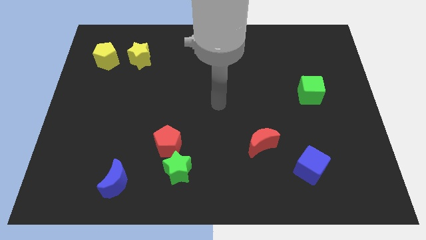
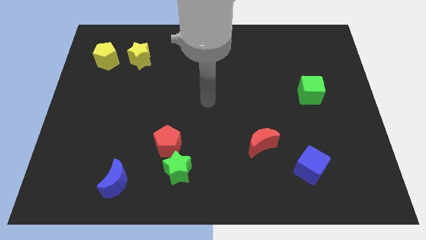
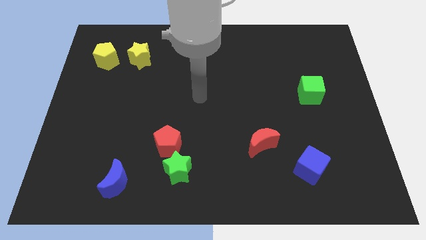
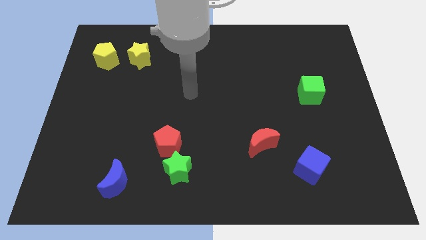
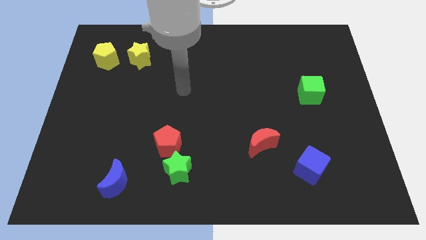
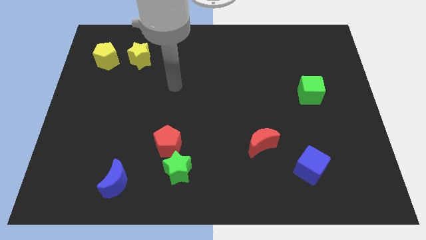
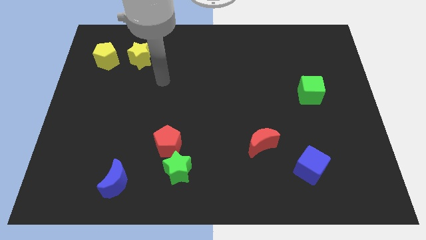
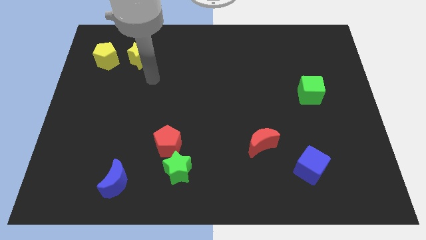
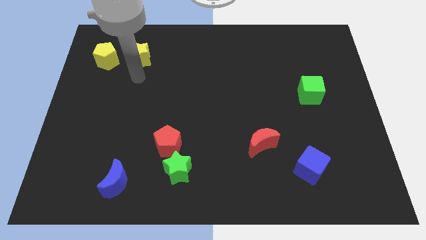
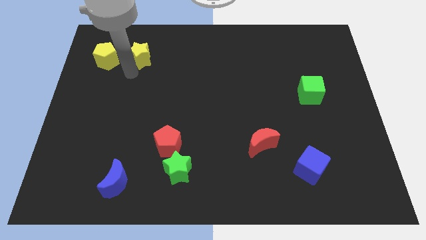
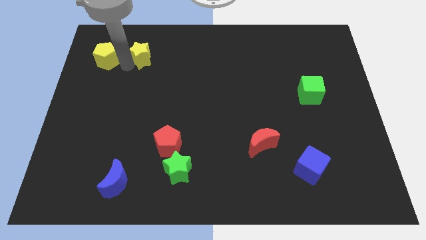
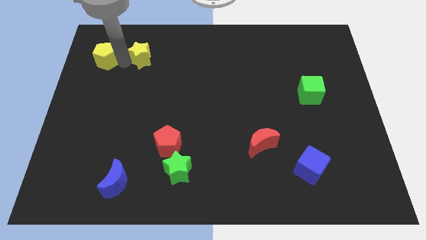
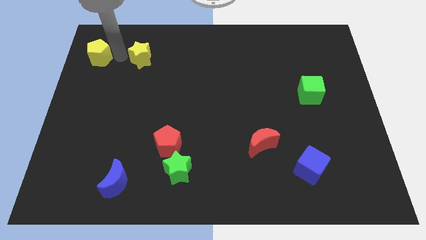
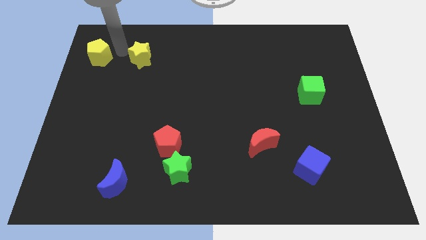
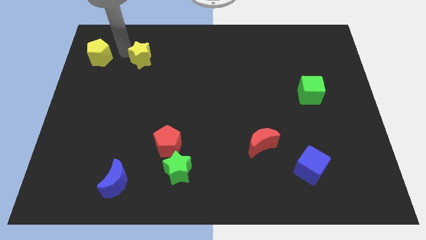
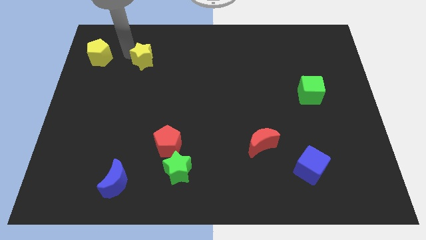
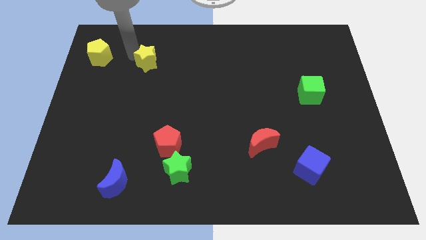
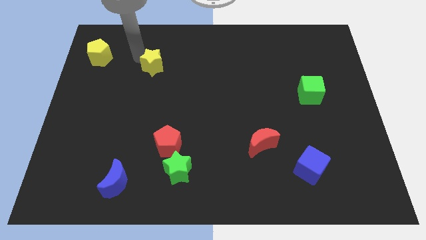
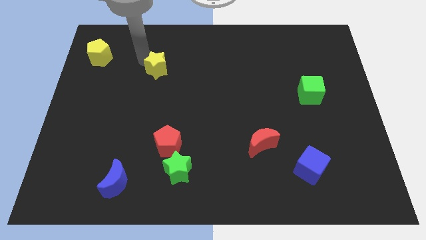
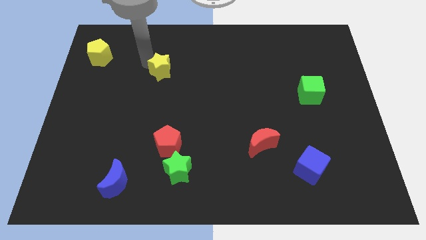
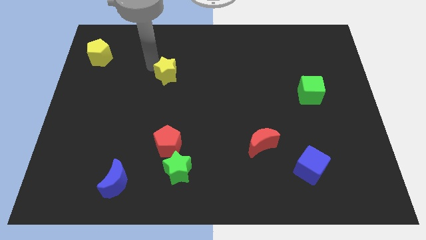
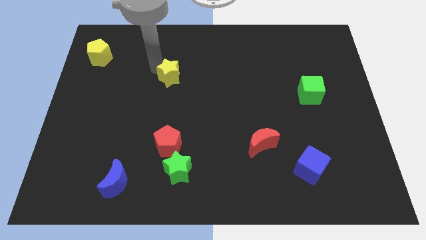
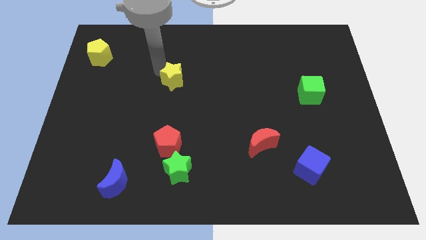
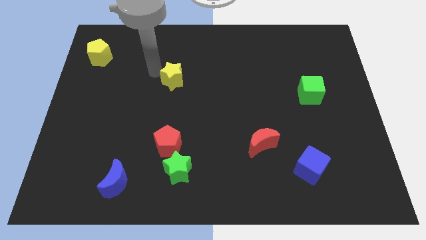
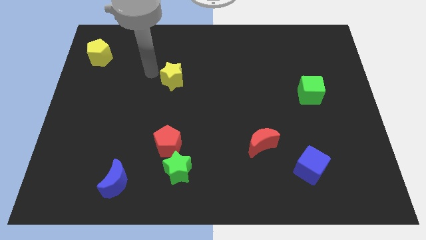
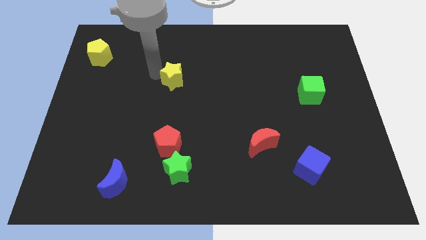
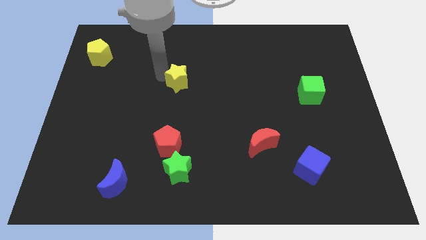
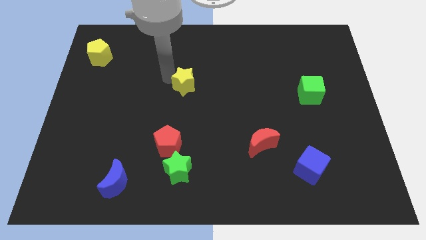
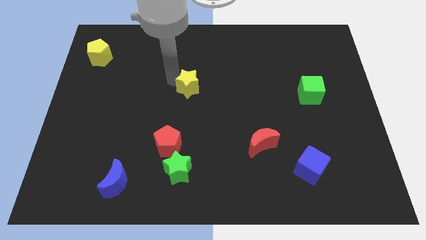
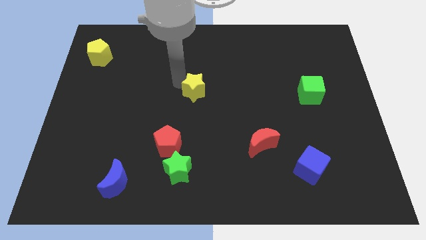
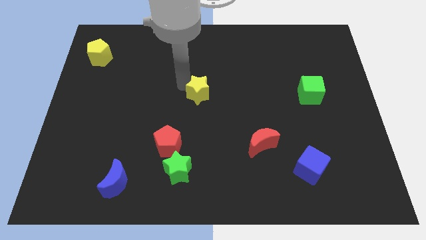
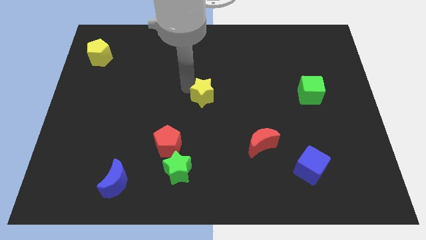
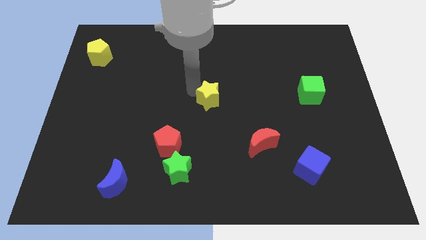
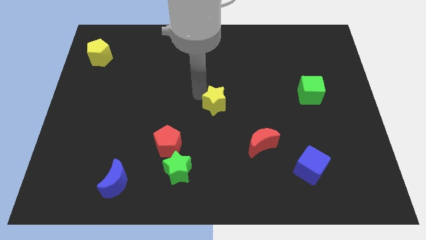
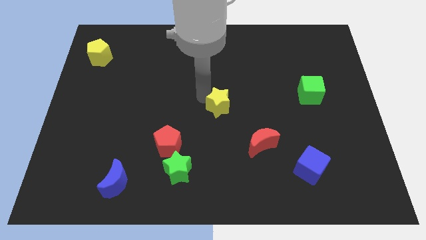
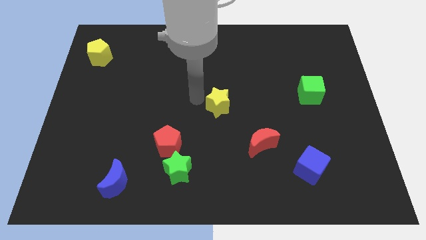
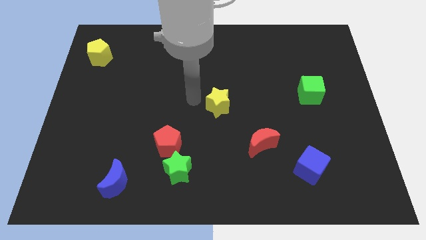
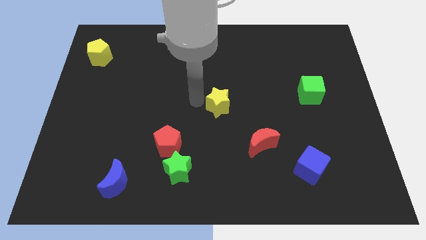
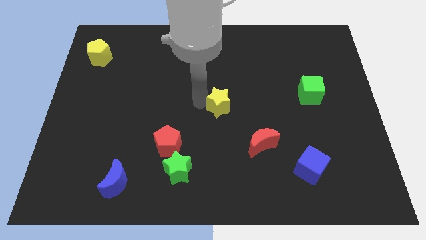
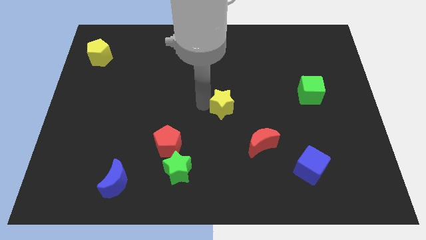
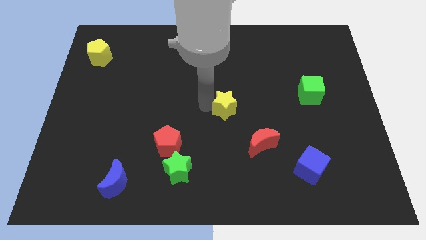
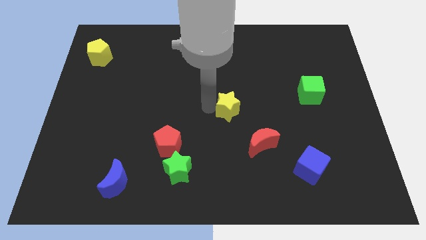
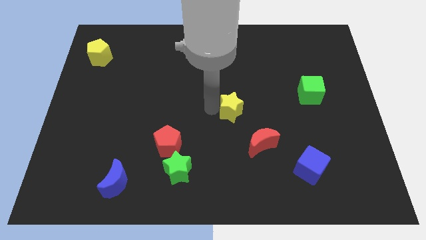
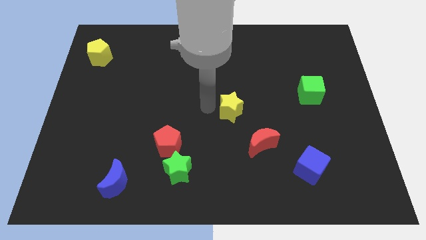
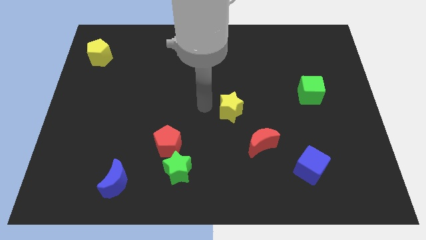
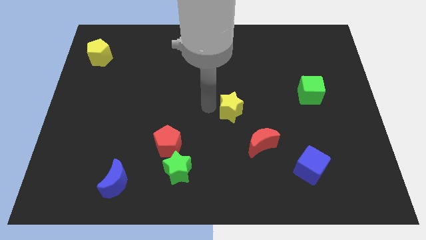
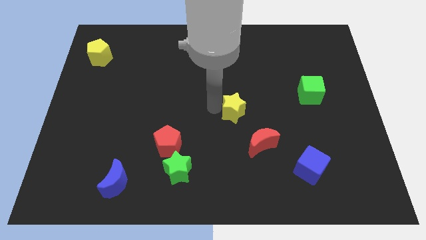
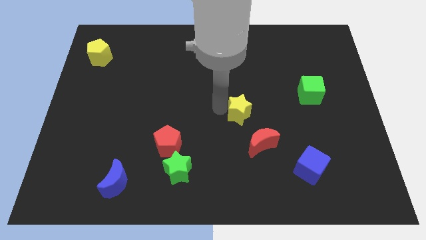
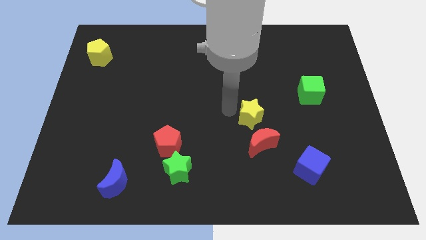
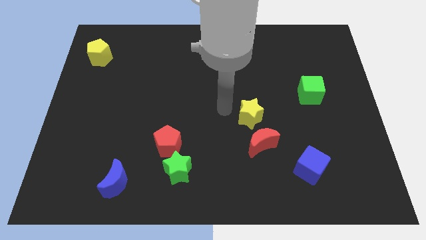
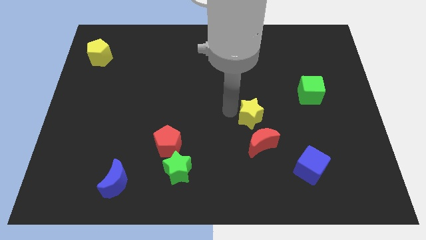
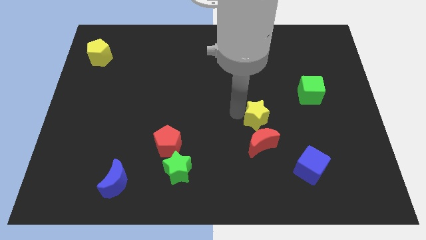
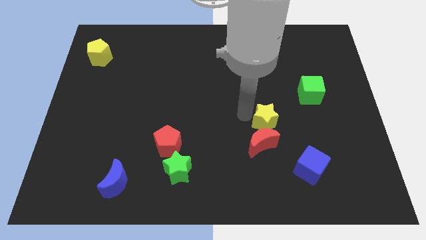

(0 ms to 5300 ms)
move the yellow star diagonally up and to the right of the red moon

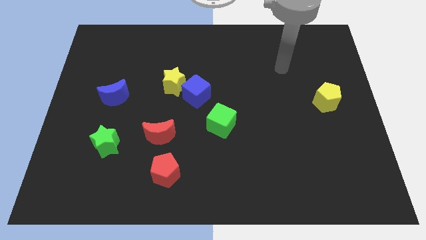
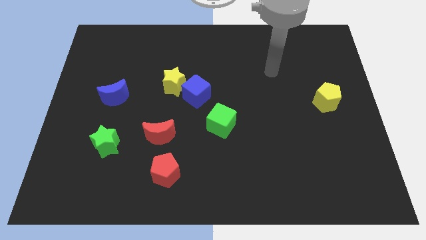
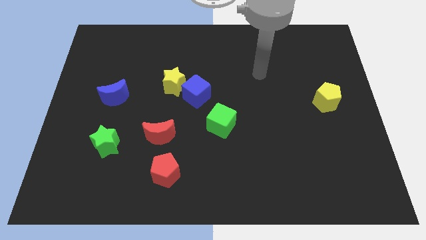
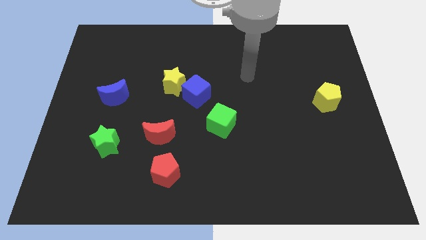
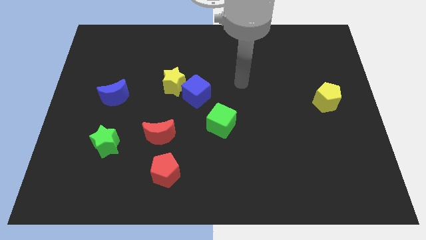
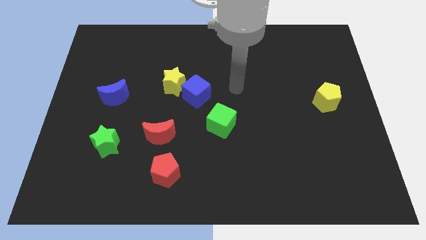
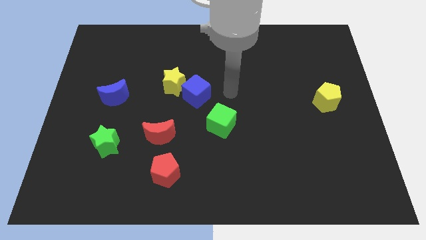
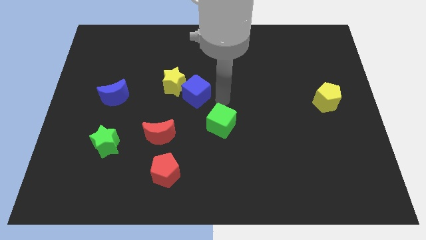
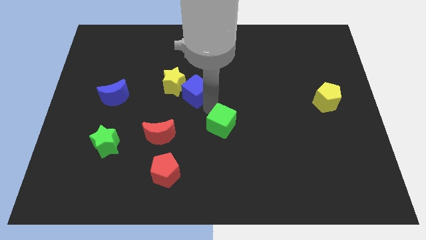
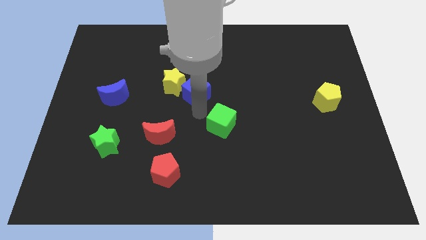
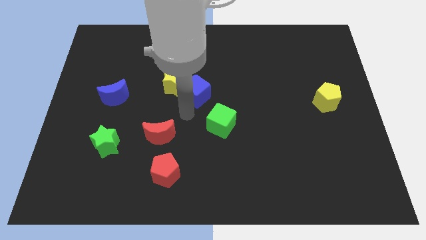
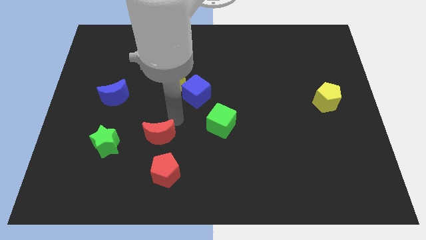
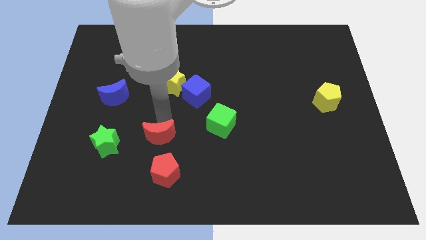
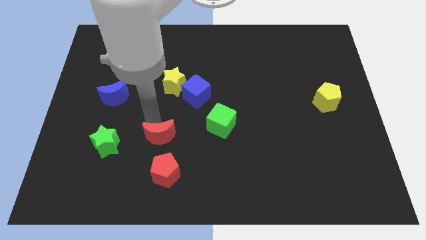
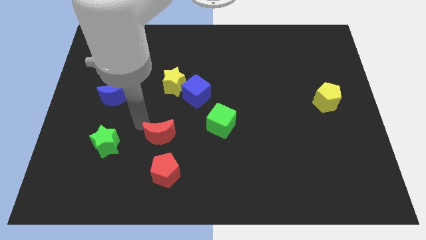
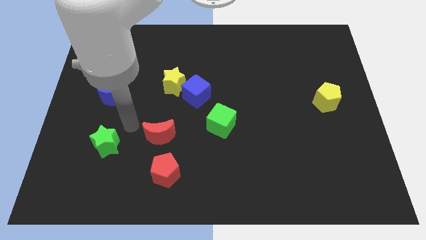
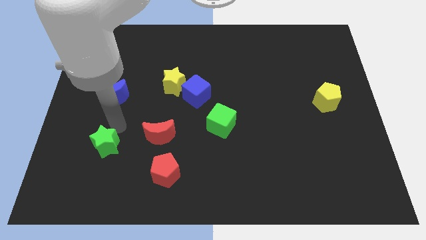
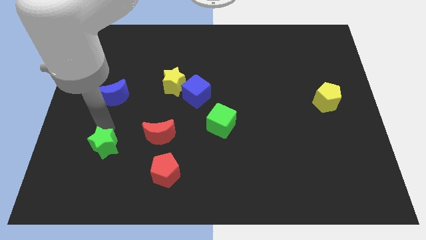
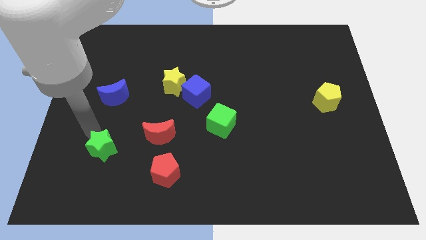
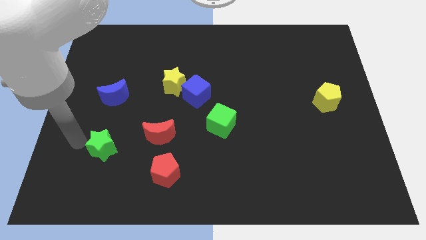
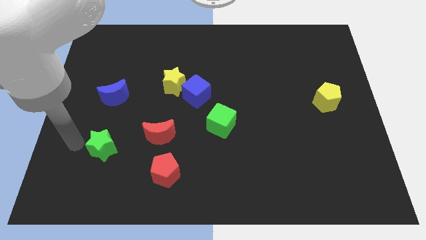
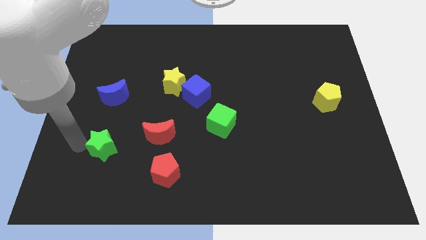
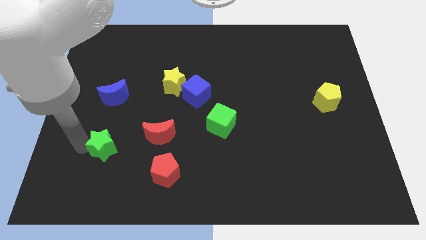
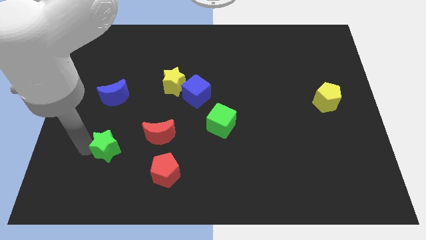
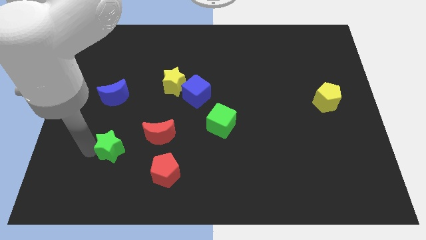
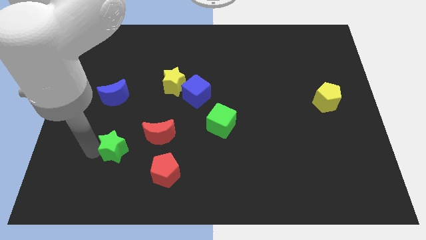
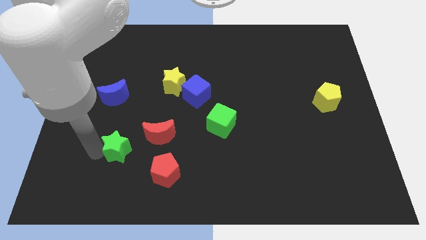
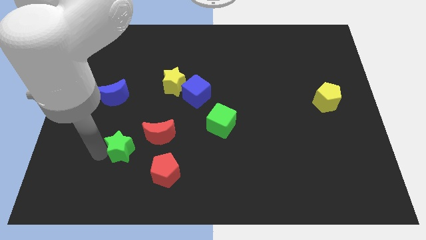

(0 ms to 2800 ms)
push the green star to the top left side of the red pentagon
